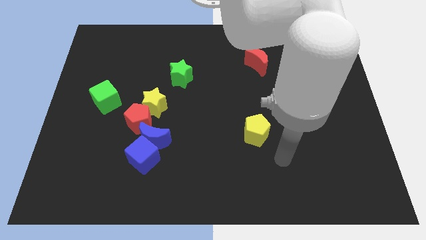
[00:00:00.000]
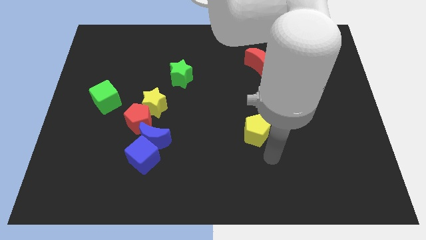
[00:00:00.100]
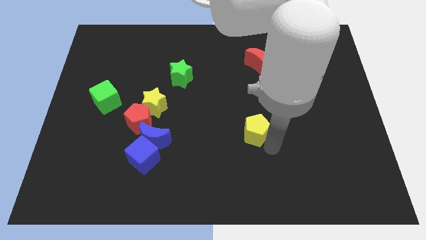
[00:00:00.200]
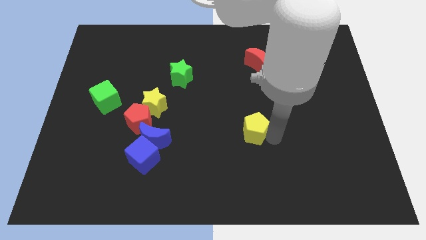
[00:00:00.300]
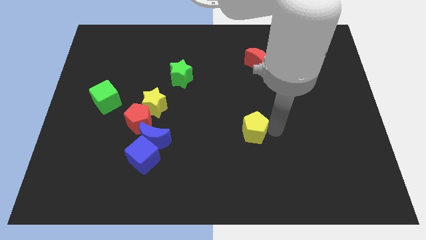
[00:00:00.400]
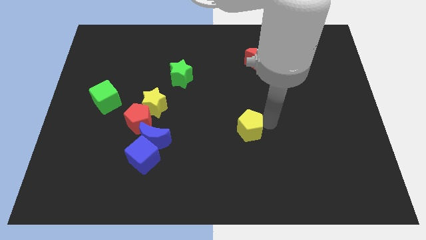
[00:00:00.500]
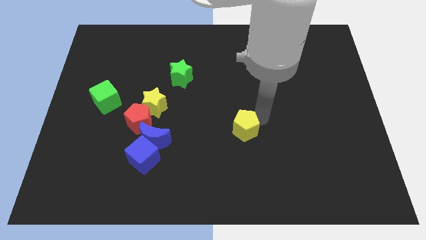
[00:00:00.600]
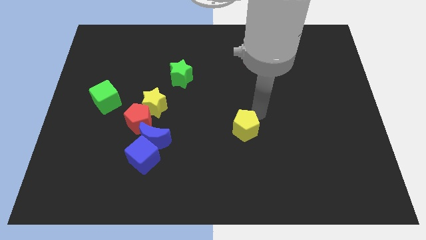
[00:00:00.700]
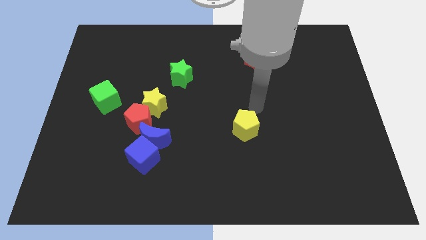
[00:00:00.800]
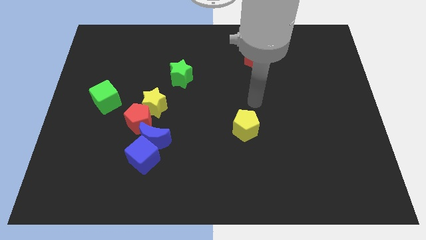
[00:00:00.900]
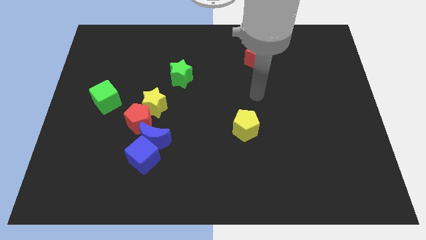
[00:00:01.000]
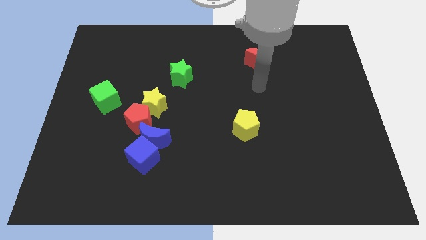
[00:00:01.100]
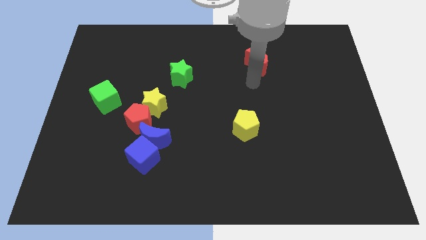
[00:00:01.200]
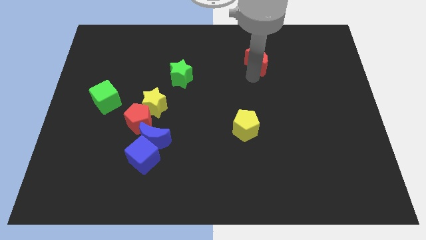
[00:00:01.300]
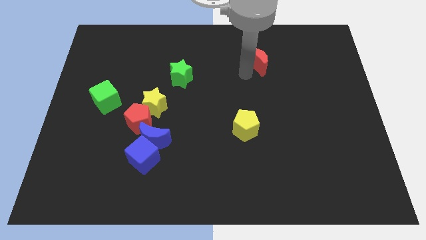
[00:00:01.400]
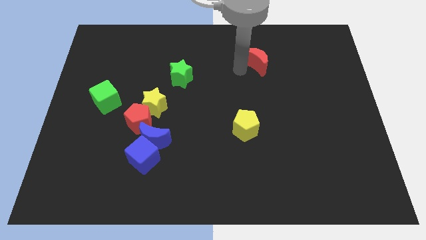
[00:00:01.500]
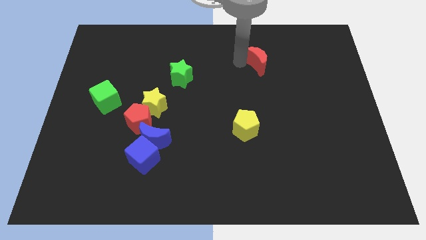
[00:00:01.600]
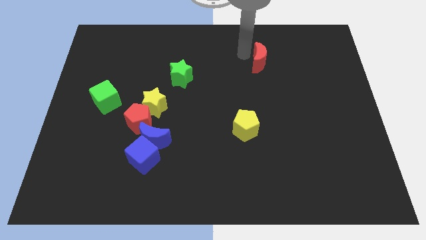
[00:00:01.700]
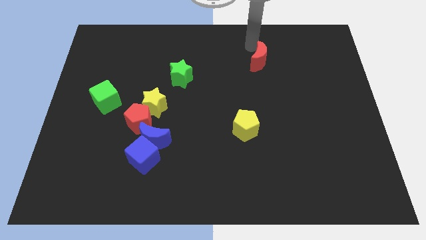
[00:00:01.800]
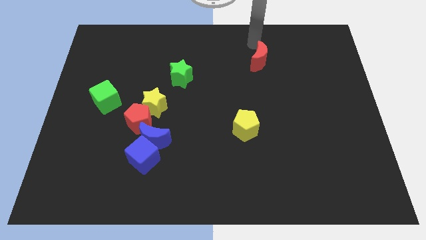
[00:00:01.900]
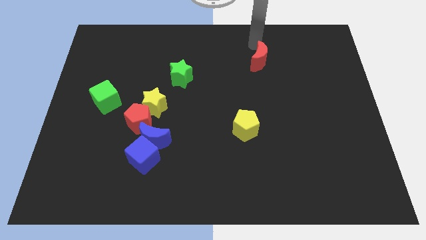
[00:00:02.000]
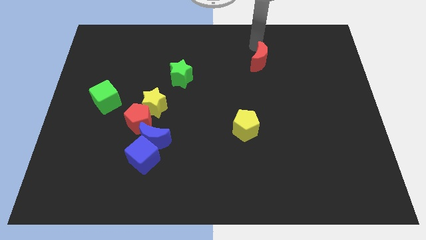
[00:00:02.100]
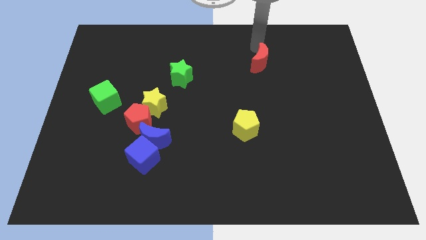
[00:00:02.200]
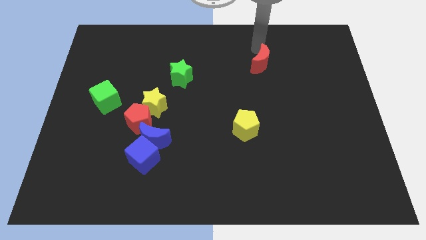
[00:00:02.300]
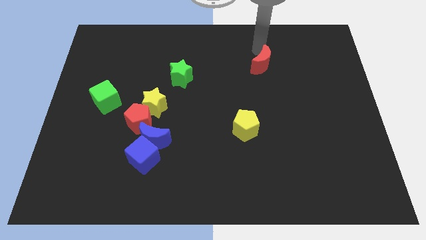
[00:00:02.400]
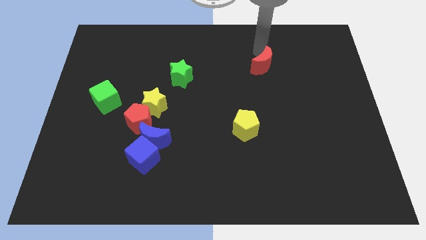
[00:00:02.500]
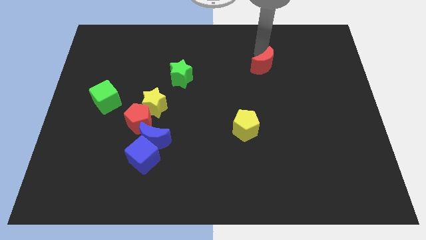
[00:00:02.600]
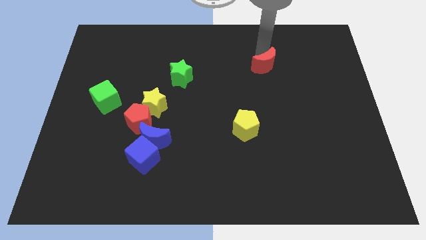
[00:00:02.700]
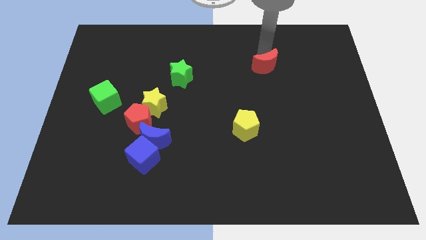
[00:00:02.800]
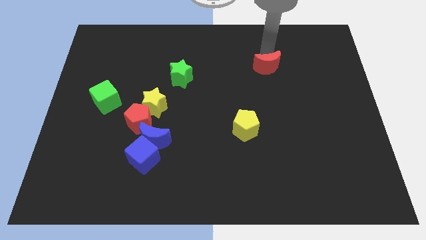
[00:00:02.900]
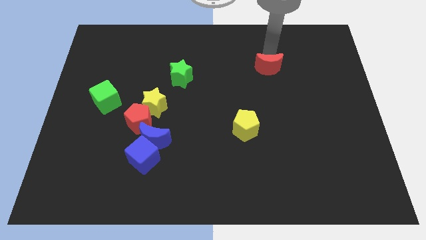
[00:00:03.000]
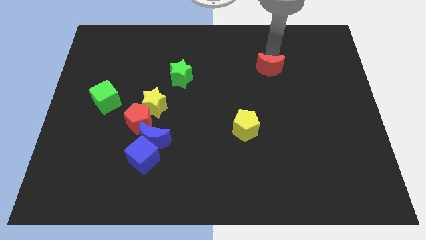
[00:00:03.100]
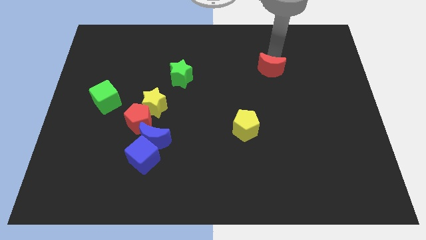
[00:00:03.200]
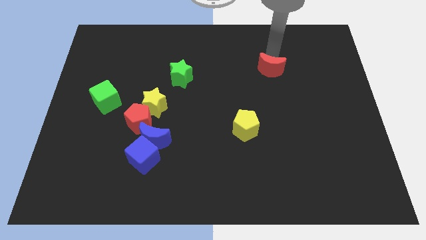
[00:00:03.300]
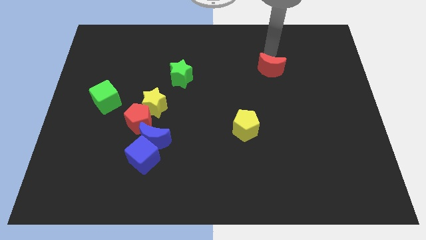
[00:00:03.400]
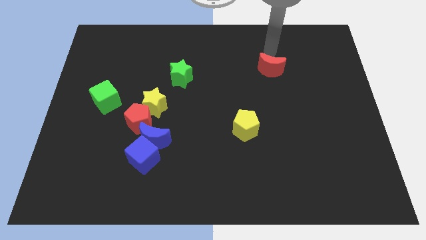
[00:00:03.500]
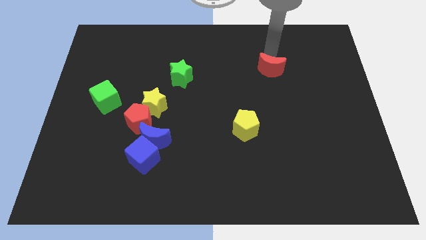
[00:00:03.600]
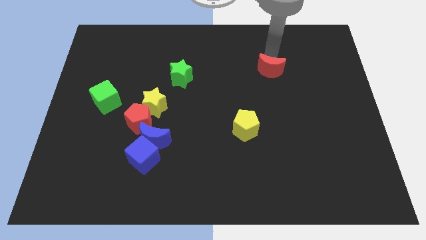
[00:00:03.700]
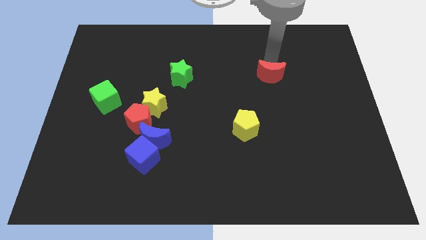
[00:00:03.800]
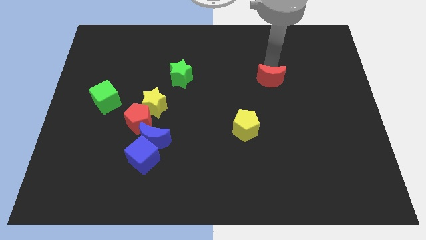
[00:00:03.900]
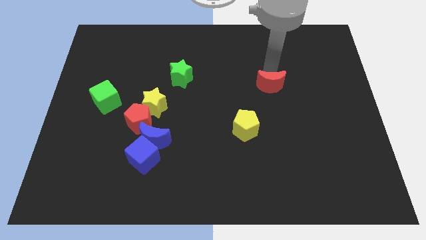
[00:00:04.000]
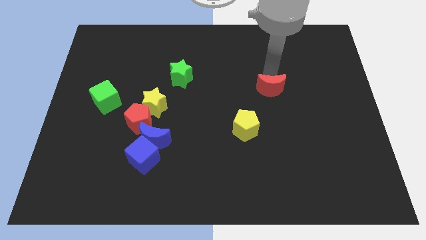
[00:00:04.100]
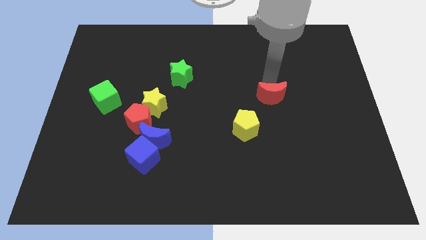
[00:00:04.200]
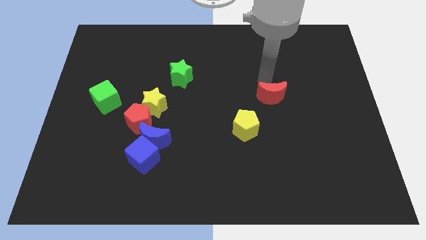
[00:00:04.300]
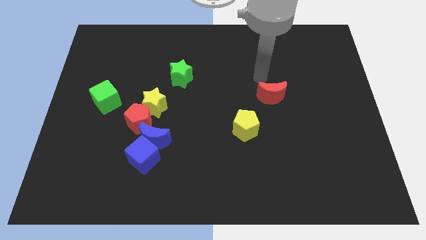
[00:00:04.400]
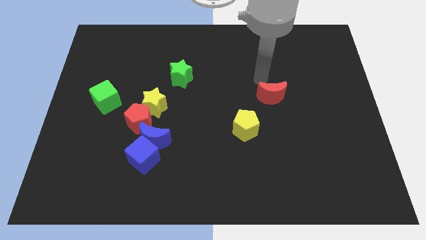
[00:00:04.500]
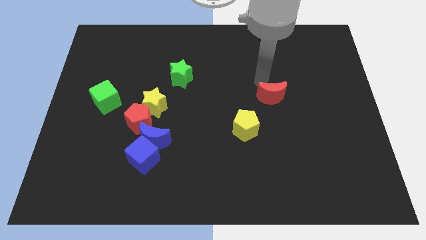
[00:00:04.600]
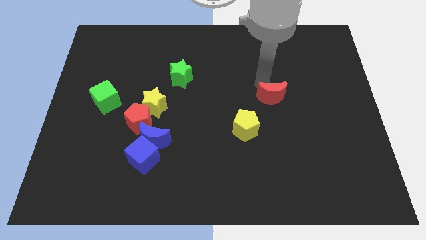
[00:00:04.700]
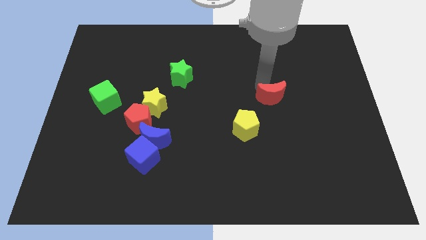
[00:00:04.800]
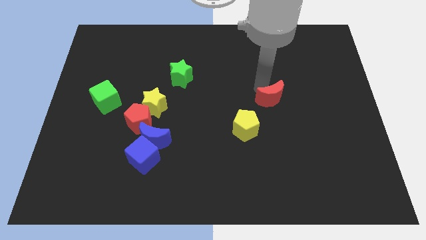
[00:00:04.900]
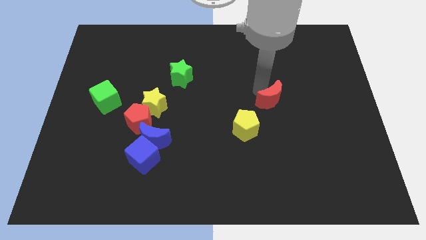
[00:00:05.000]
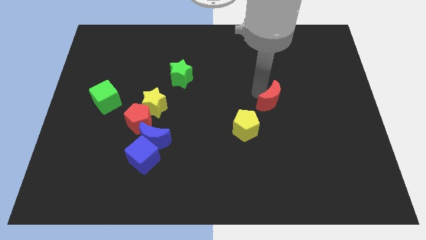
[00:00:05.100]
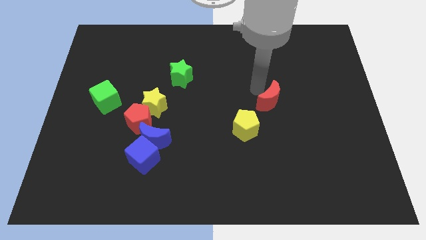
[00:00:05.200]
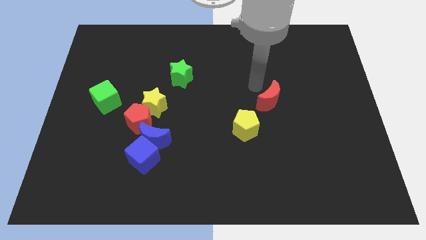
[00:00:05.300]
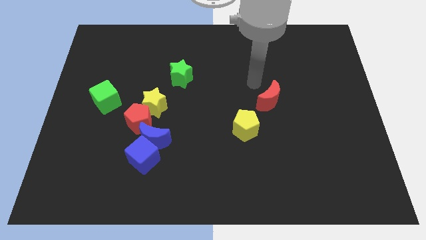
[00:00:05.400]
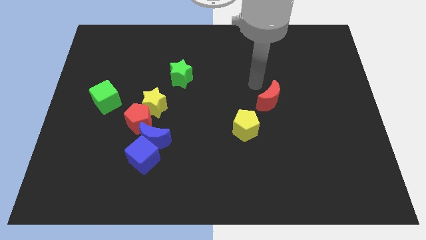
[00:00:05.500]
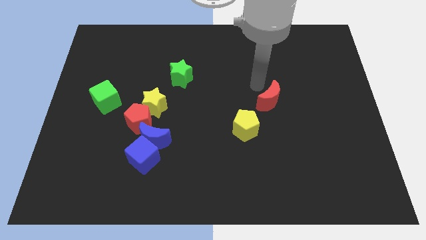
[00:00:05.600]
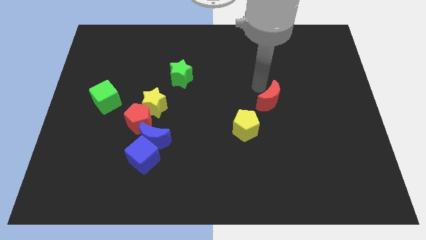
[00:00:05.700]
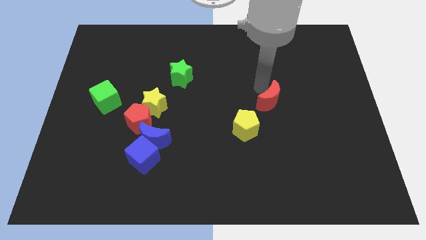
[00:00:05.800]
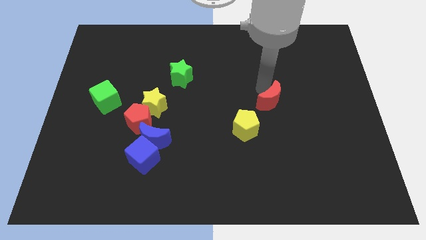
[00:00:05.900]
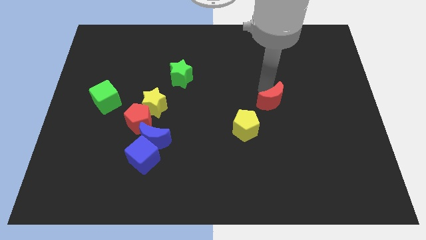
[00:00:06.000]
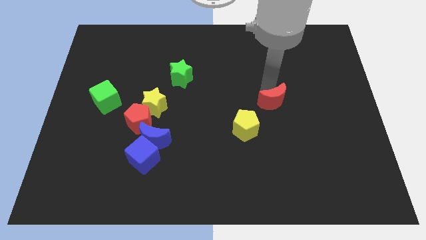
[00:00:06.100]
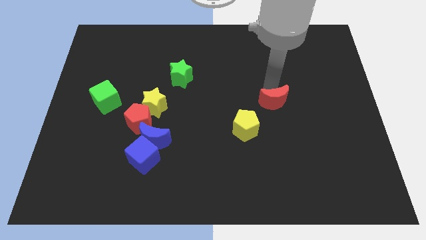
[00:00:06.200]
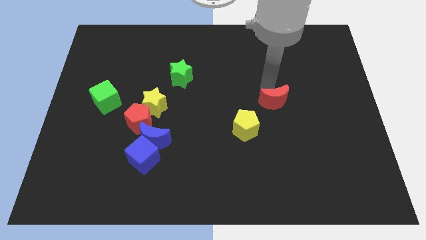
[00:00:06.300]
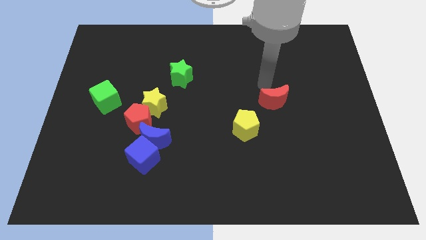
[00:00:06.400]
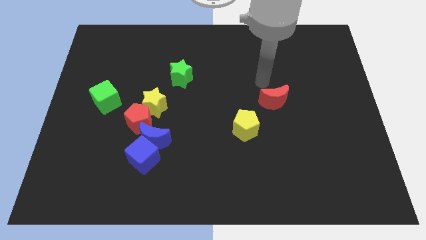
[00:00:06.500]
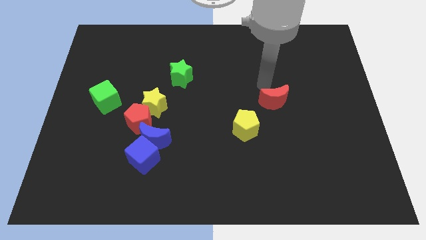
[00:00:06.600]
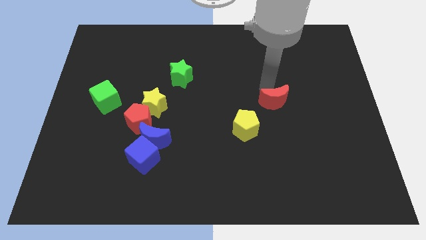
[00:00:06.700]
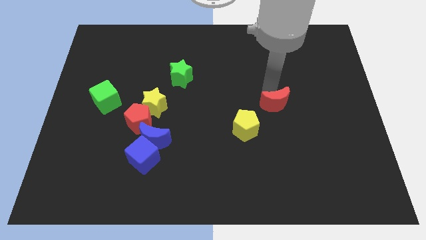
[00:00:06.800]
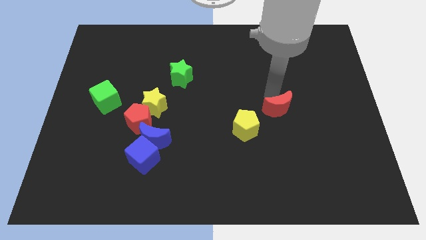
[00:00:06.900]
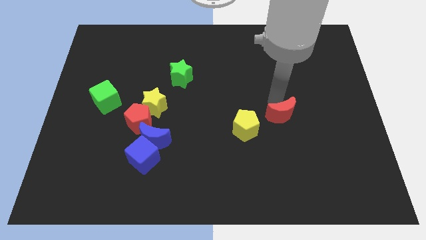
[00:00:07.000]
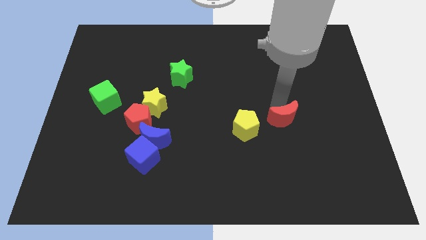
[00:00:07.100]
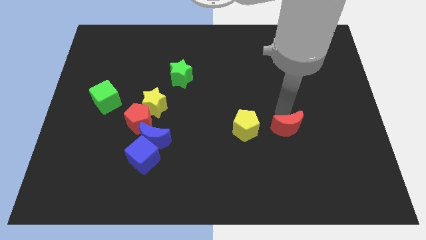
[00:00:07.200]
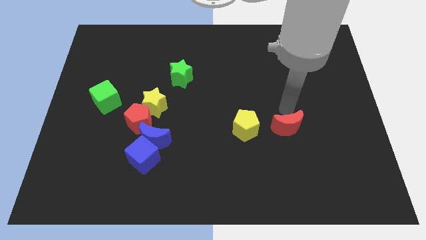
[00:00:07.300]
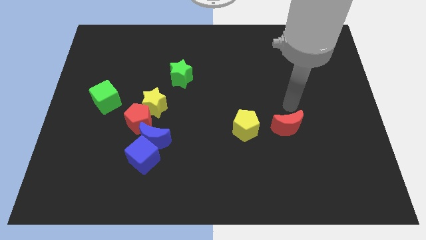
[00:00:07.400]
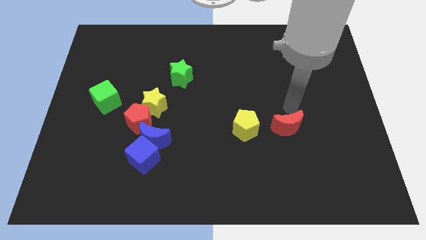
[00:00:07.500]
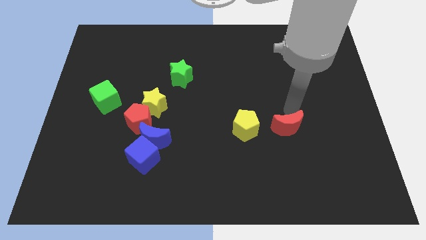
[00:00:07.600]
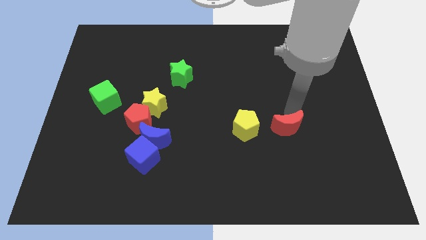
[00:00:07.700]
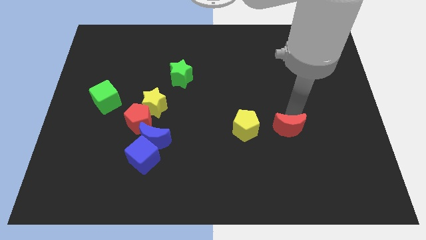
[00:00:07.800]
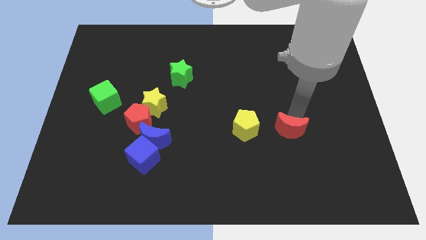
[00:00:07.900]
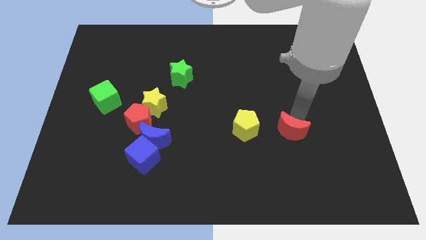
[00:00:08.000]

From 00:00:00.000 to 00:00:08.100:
move the red moon down
